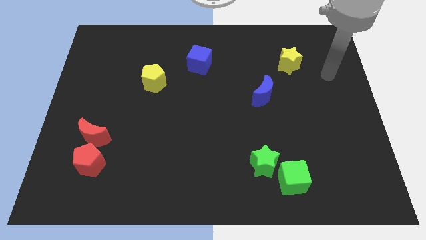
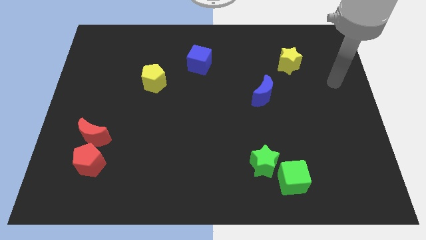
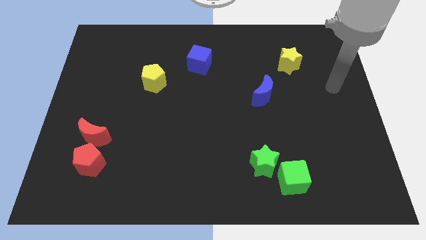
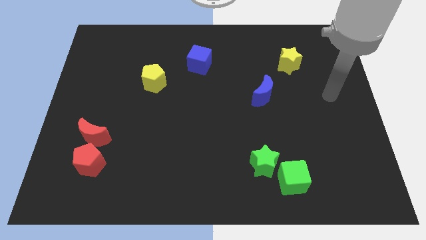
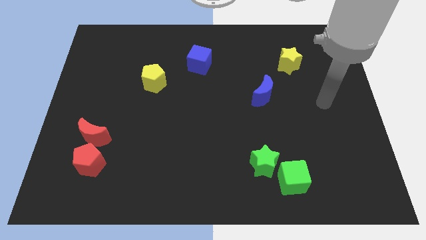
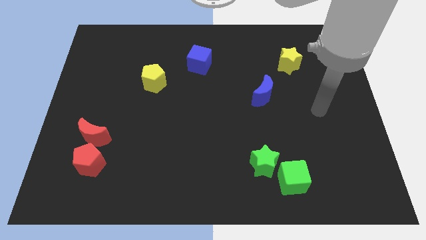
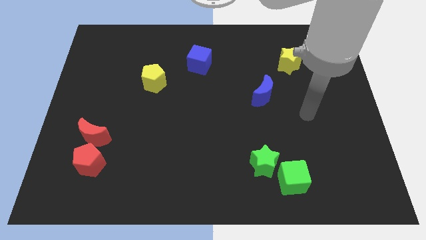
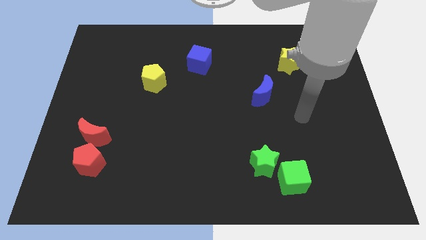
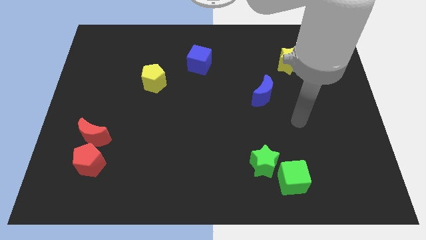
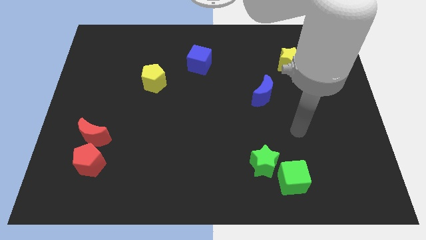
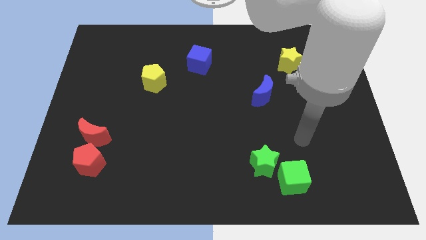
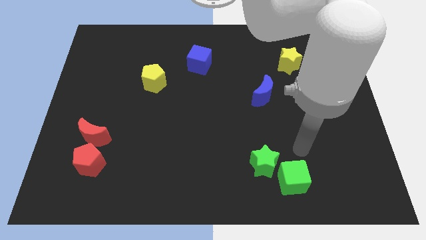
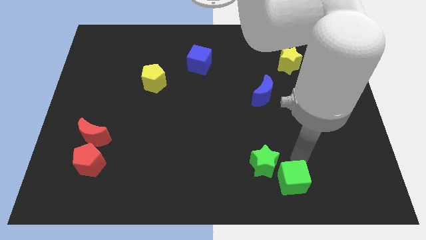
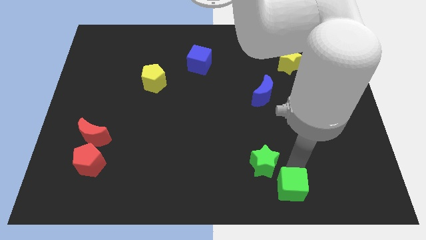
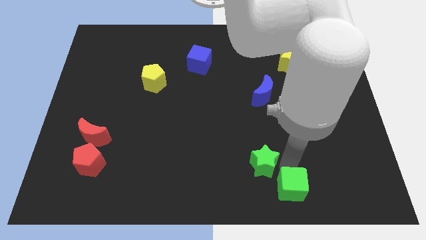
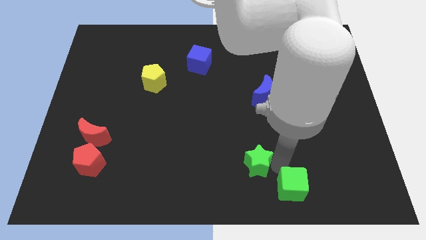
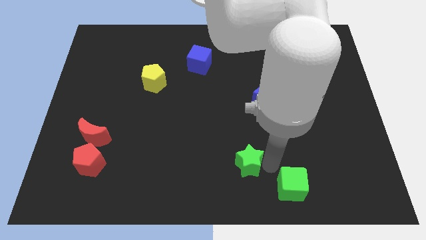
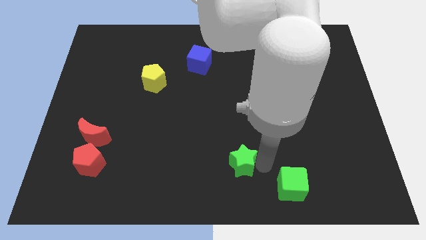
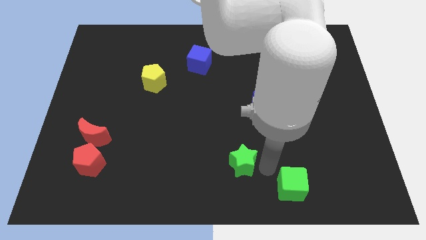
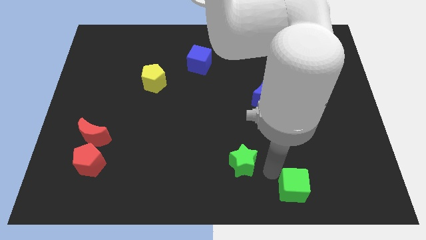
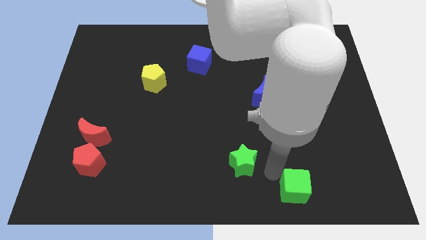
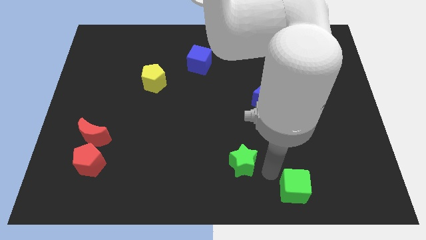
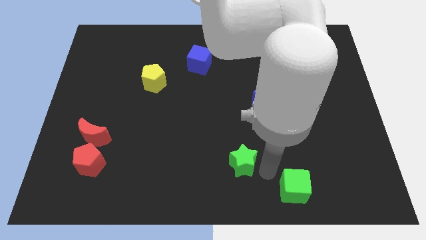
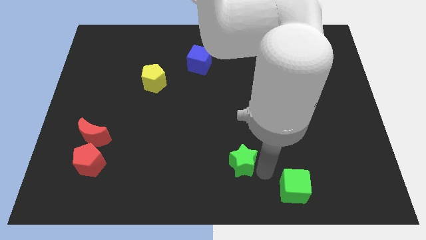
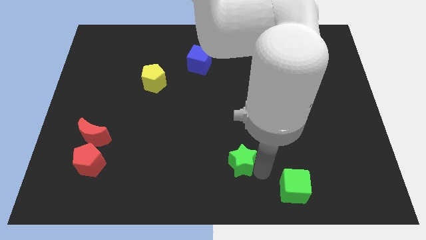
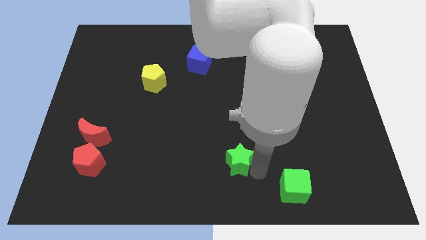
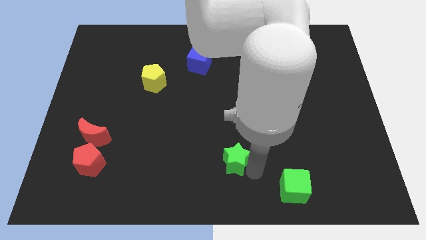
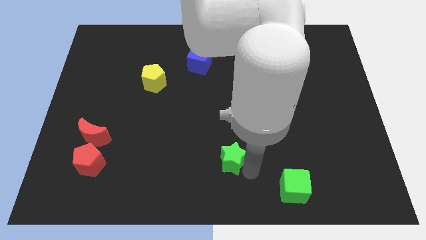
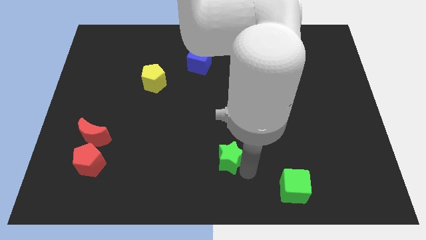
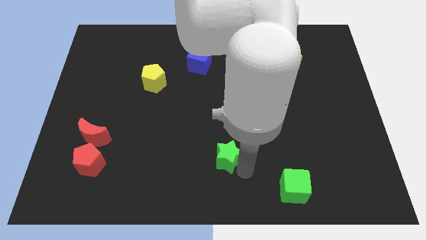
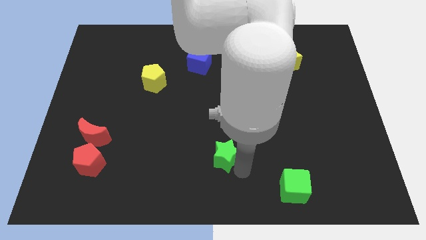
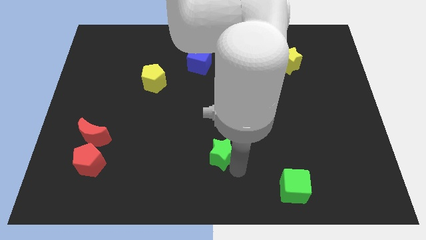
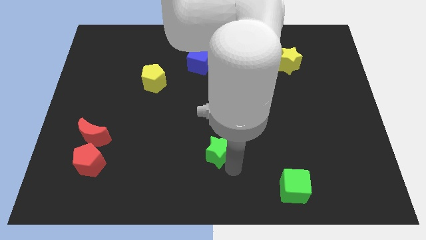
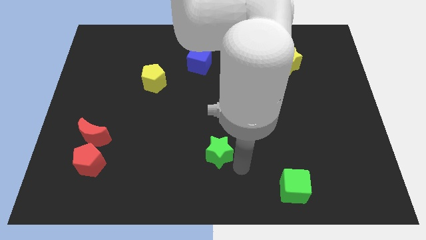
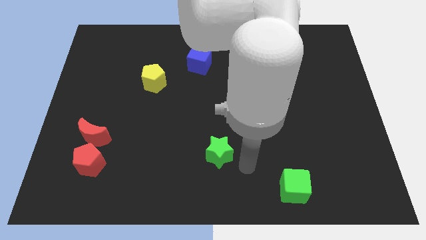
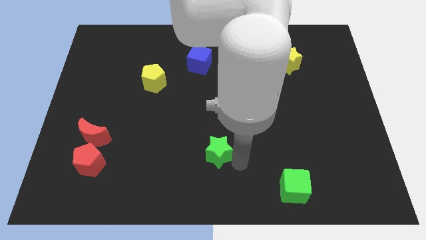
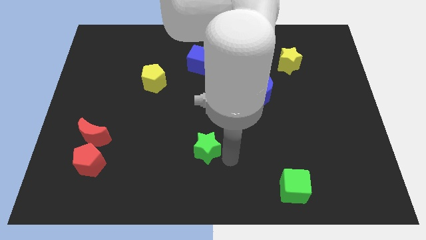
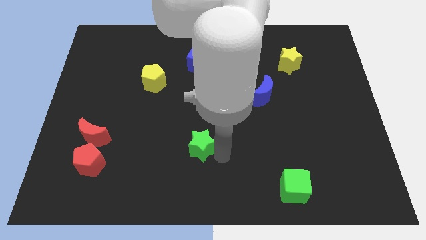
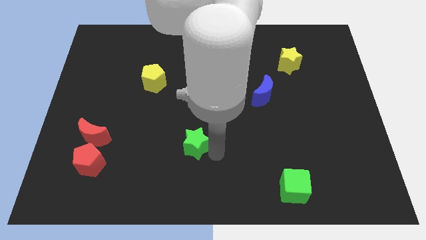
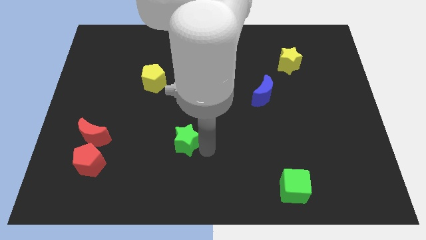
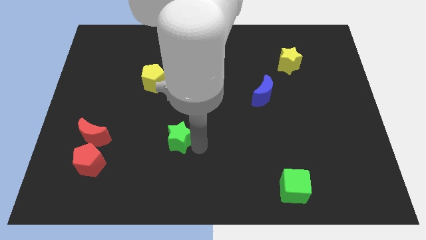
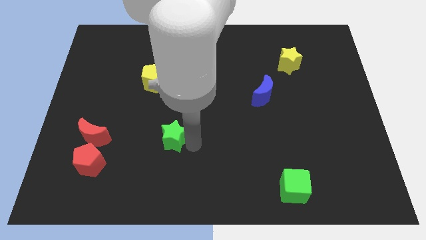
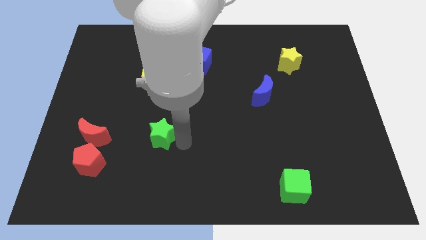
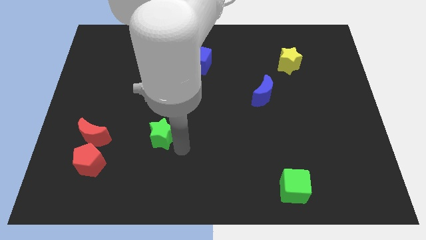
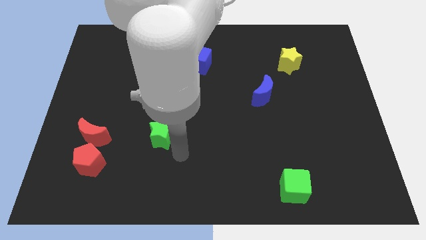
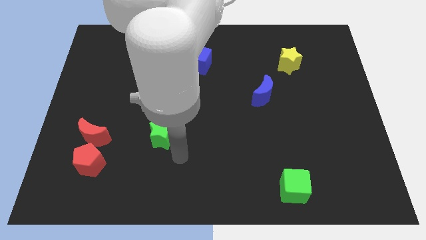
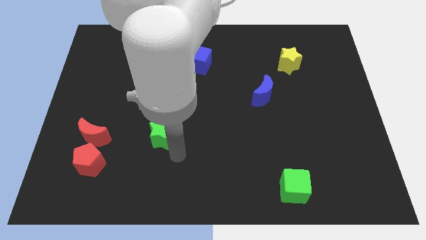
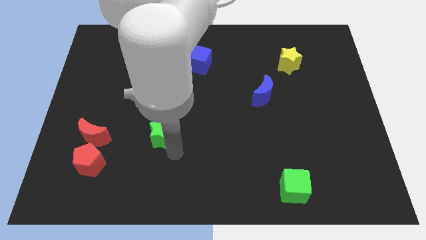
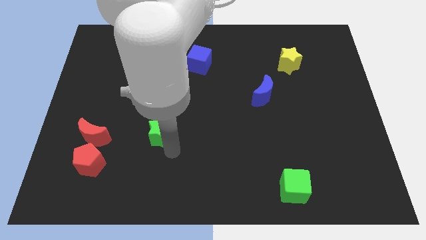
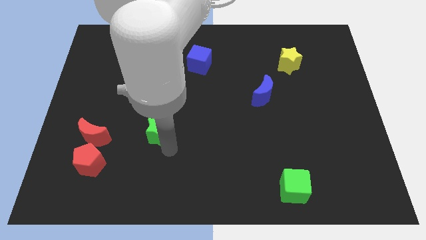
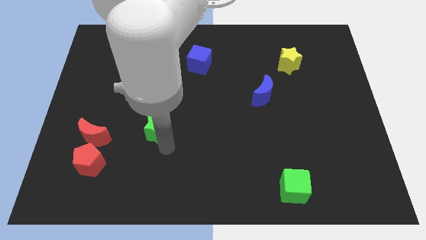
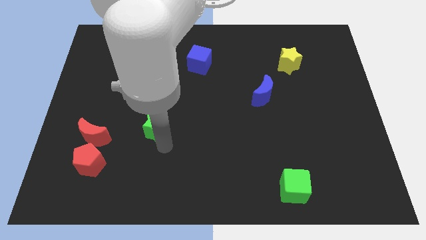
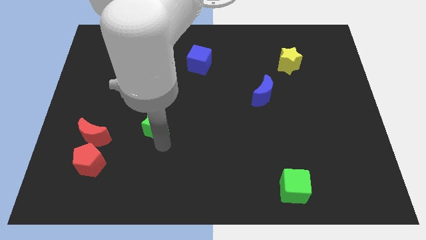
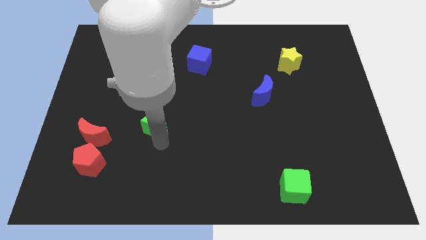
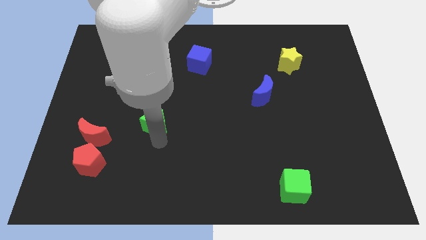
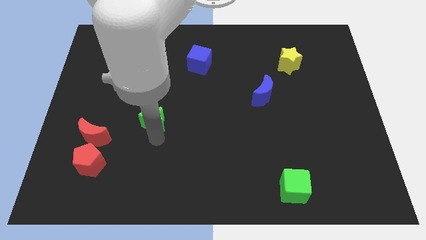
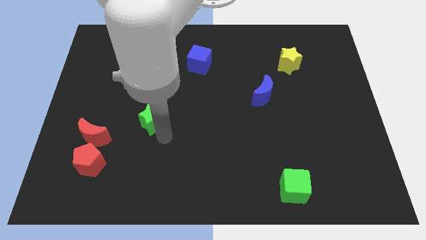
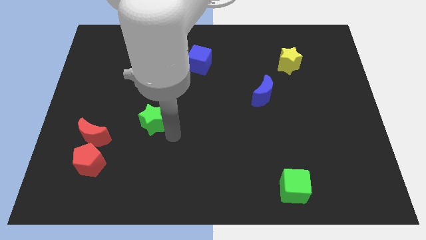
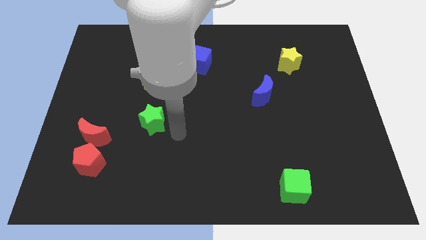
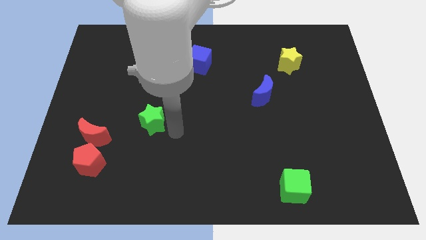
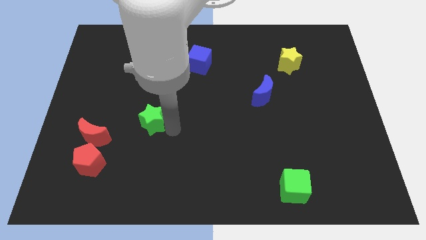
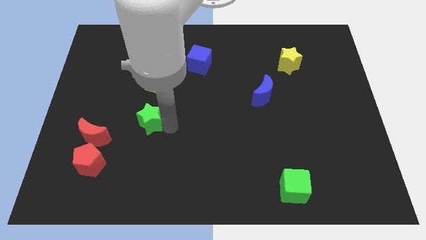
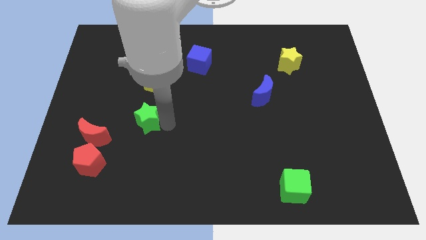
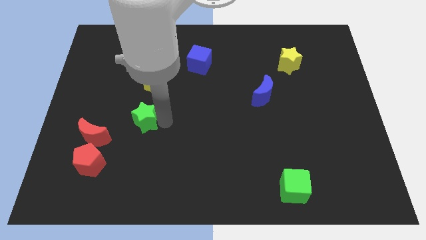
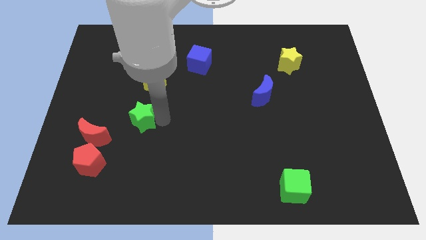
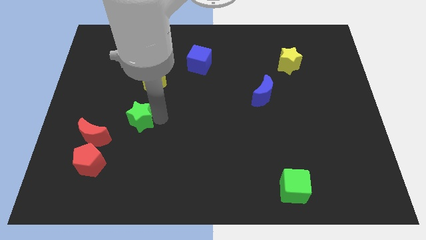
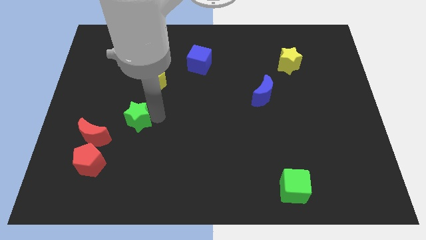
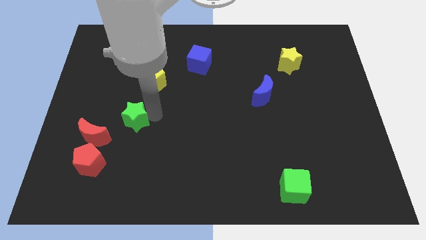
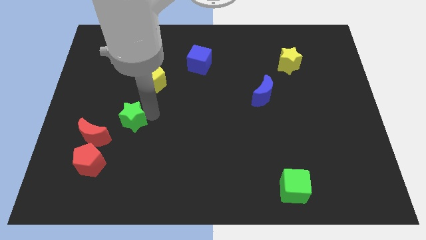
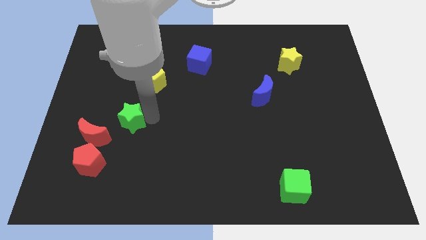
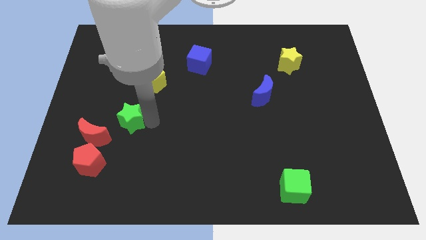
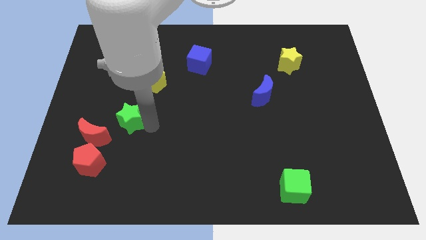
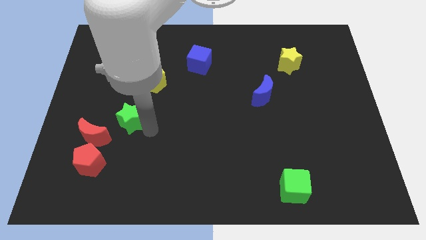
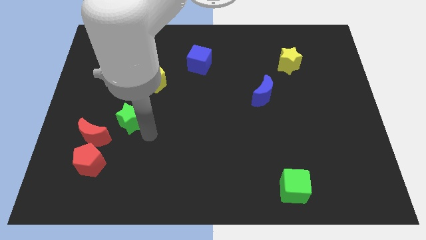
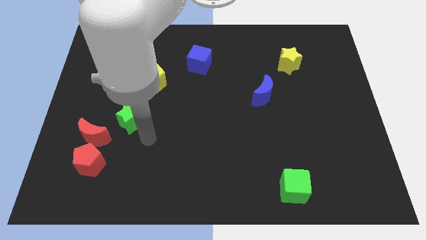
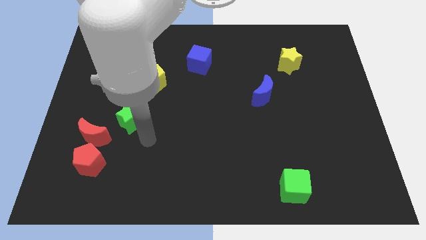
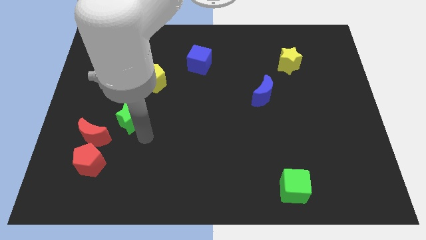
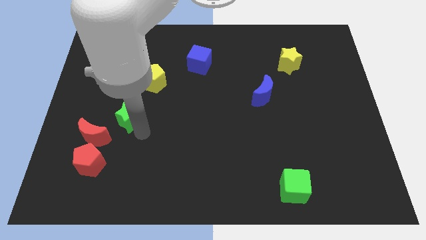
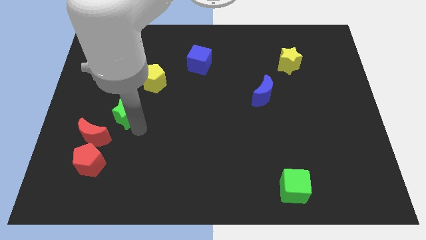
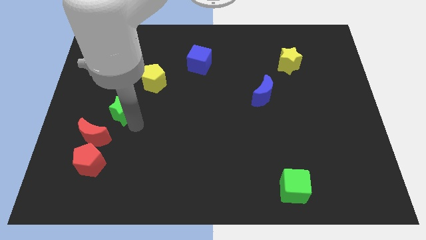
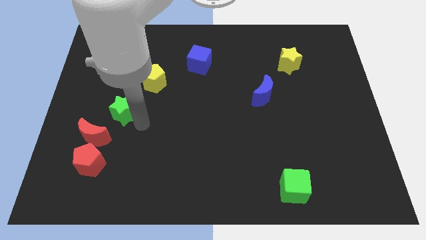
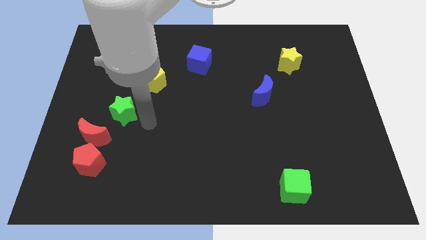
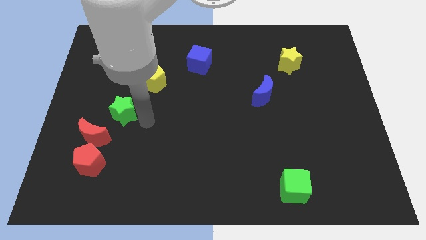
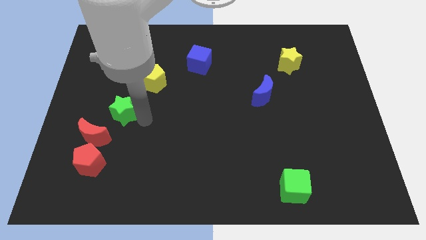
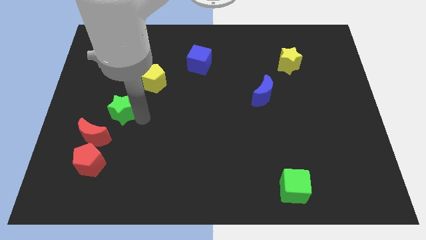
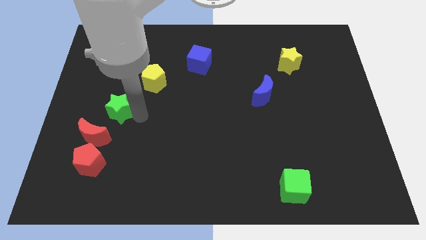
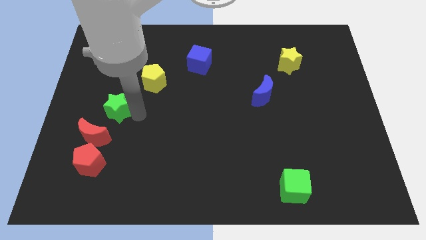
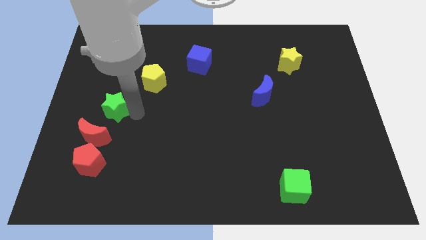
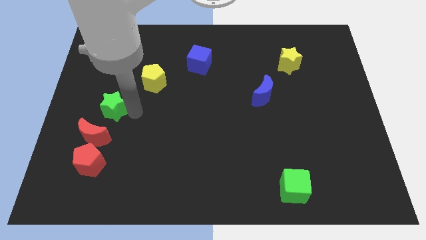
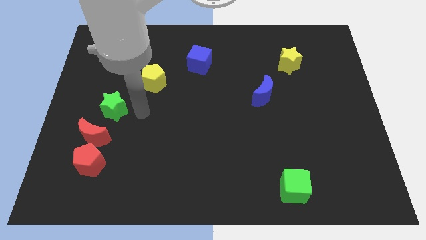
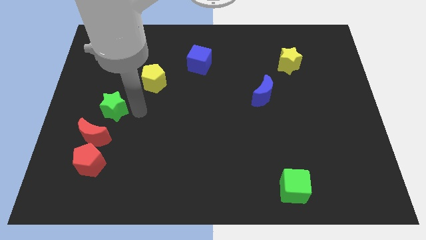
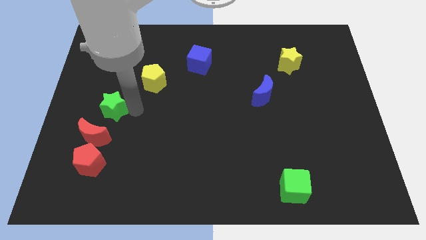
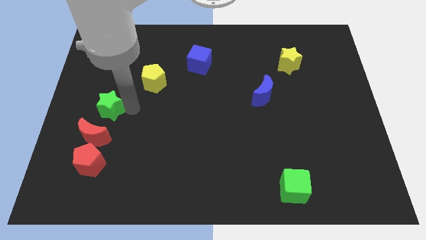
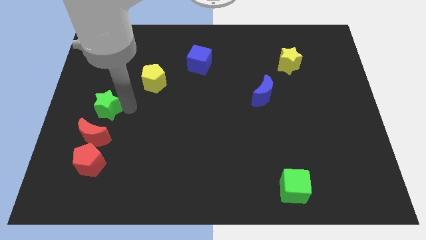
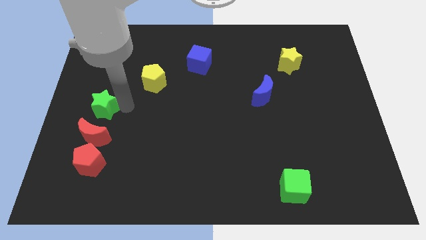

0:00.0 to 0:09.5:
slide the green star to the left side
